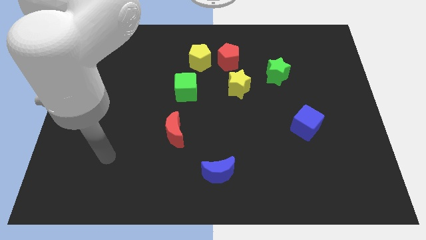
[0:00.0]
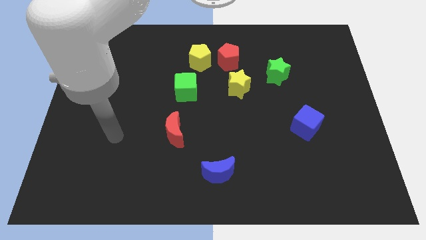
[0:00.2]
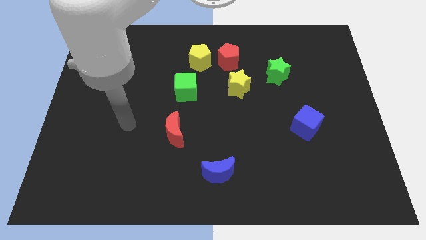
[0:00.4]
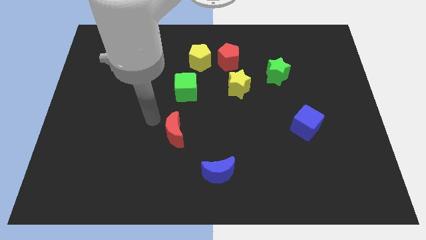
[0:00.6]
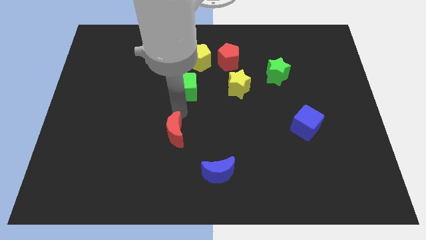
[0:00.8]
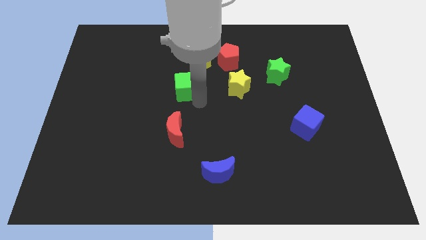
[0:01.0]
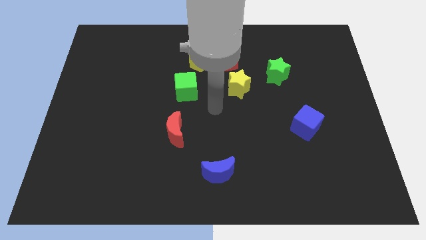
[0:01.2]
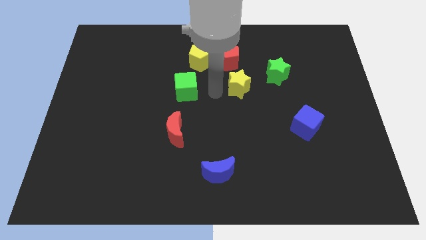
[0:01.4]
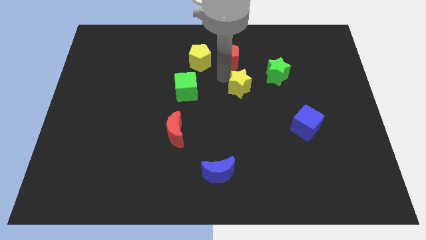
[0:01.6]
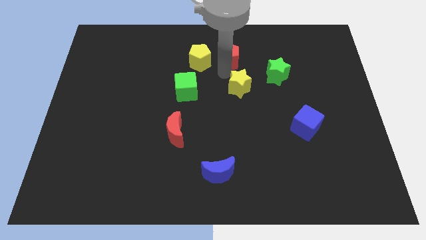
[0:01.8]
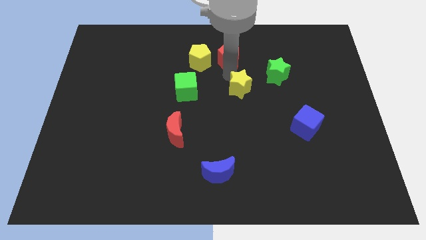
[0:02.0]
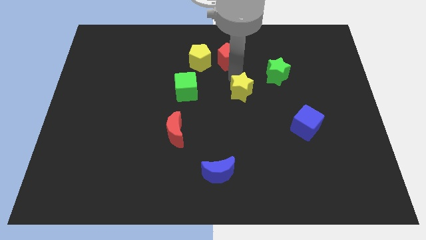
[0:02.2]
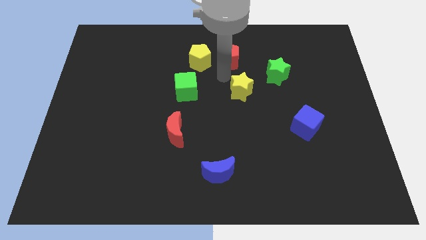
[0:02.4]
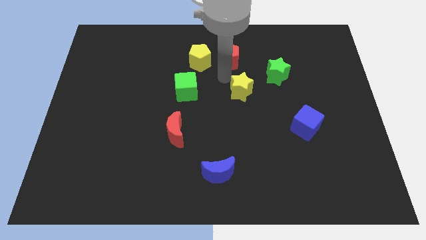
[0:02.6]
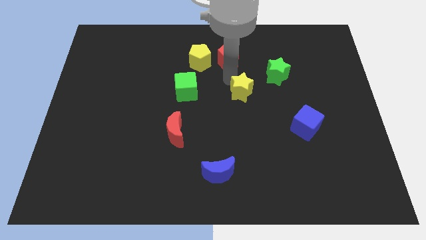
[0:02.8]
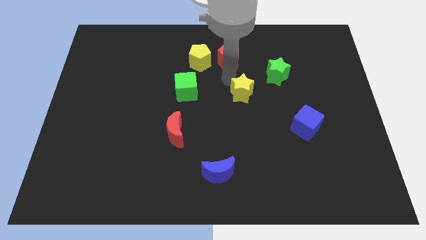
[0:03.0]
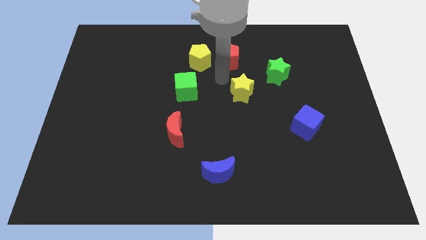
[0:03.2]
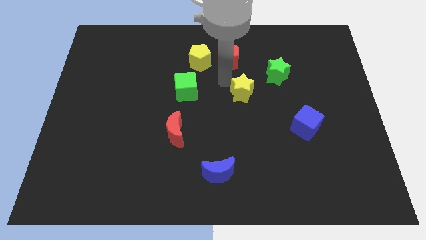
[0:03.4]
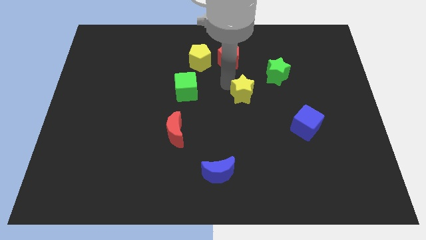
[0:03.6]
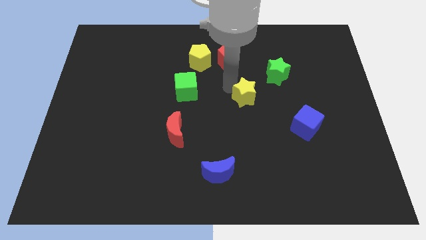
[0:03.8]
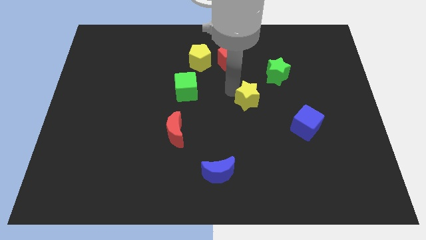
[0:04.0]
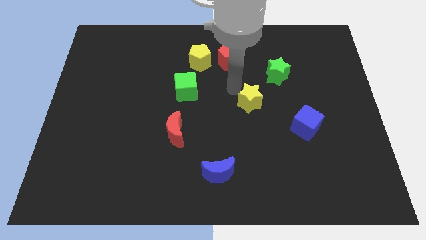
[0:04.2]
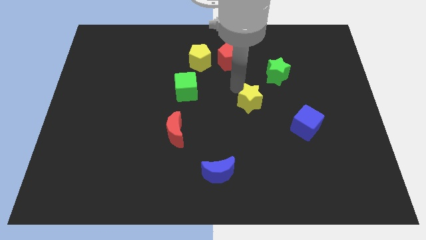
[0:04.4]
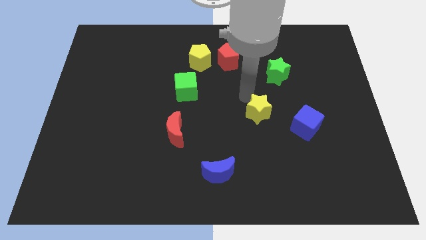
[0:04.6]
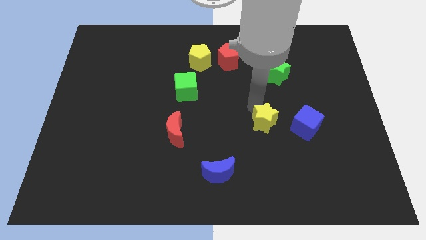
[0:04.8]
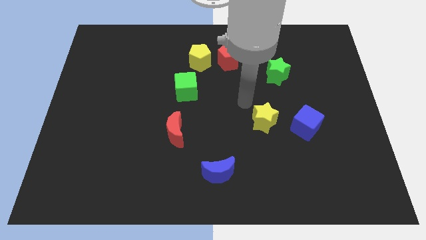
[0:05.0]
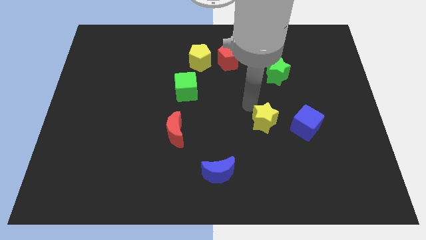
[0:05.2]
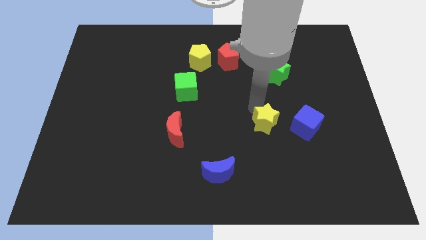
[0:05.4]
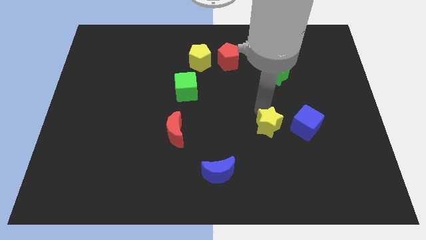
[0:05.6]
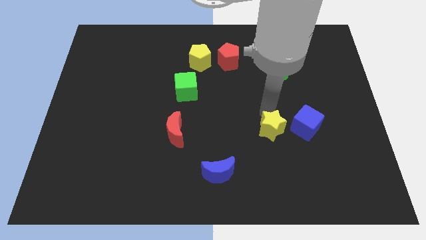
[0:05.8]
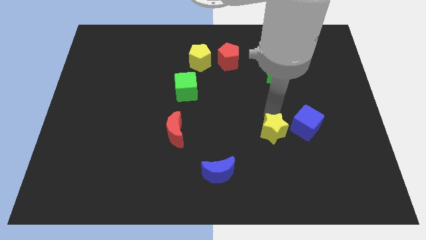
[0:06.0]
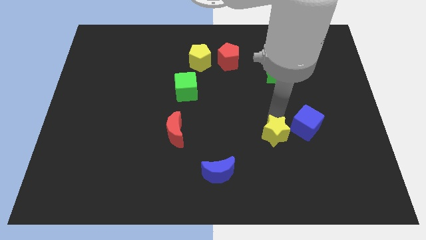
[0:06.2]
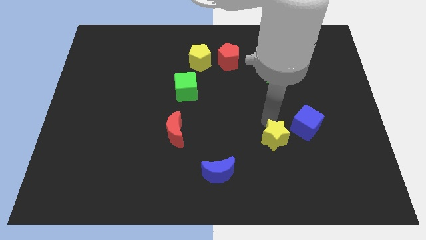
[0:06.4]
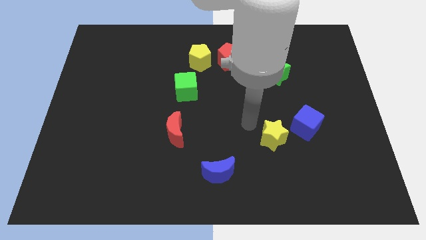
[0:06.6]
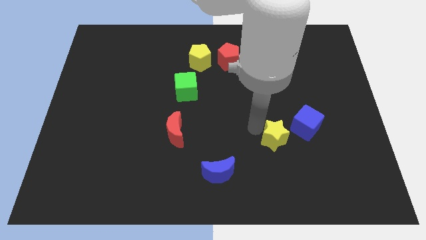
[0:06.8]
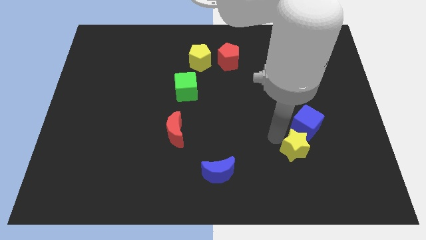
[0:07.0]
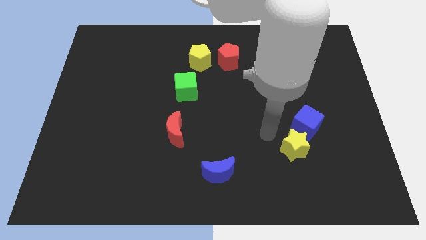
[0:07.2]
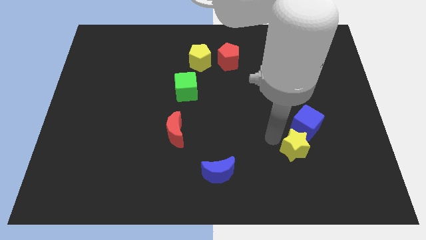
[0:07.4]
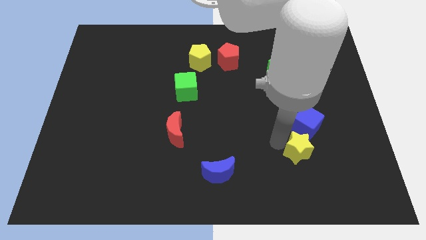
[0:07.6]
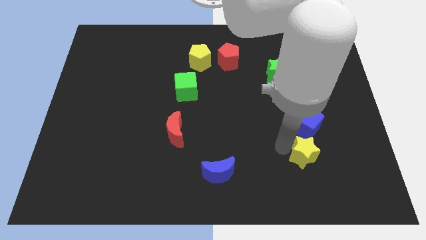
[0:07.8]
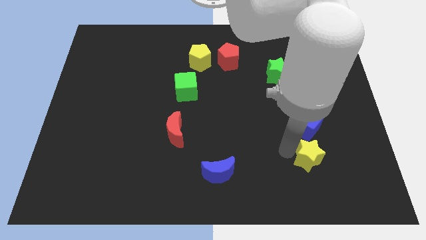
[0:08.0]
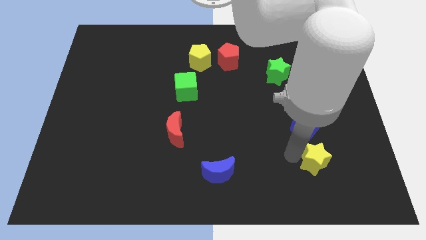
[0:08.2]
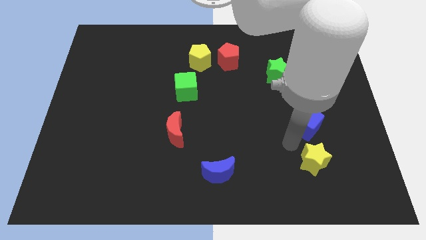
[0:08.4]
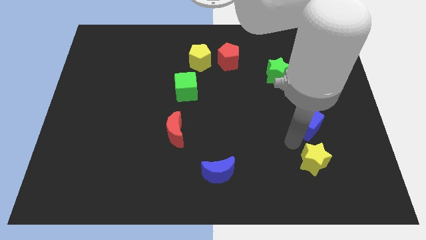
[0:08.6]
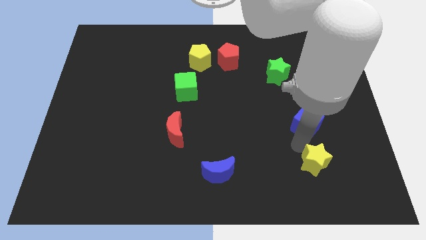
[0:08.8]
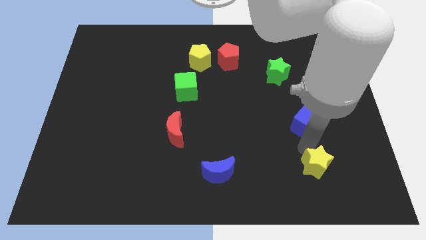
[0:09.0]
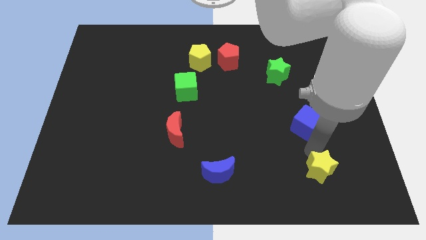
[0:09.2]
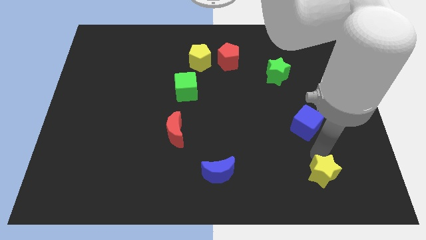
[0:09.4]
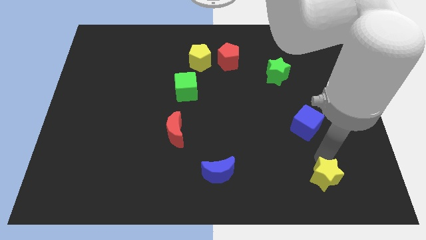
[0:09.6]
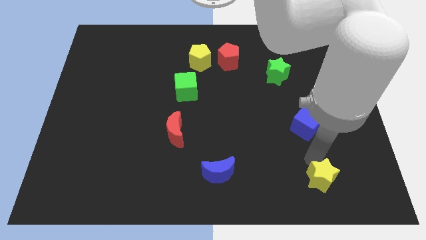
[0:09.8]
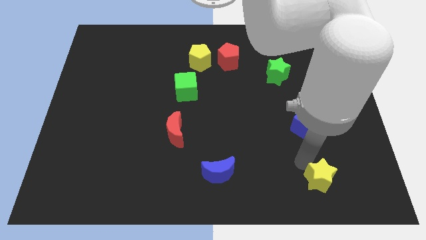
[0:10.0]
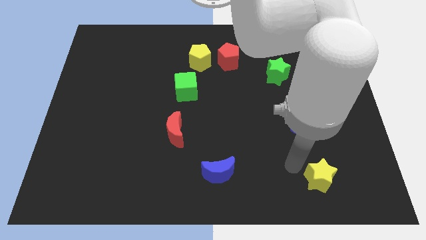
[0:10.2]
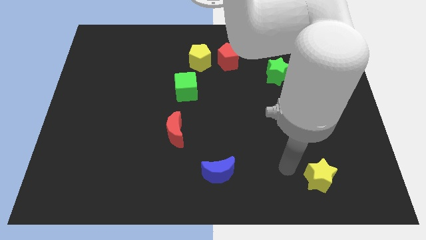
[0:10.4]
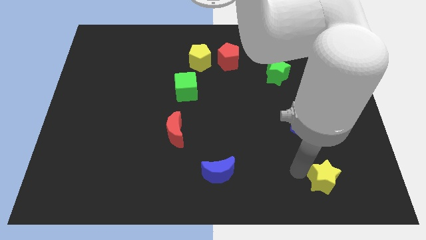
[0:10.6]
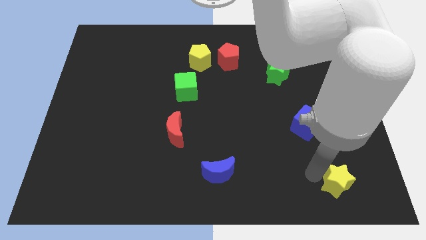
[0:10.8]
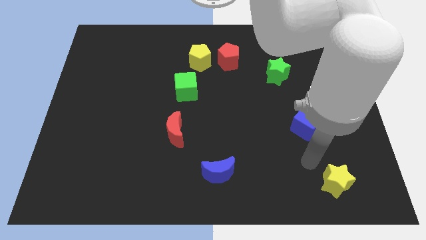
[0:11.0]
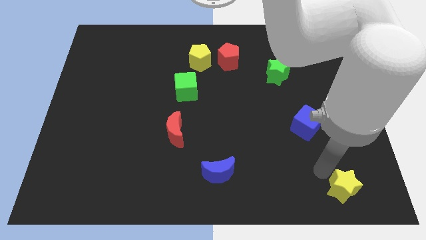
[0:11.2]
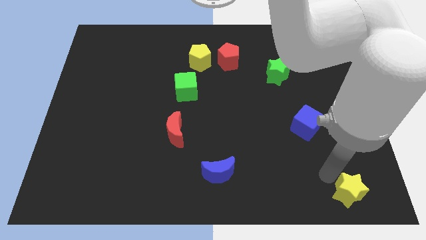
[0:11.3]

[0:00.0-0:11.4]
push the yellow star to the bottom right of the board

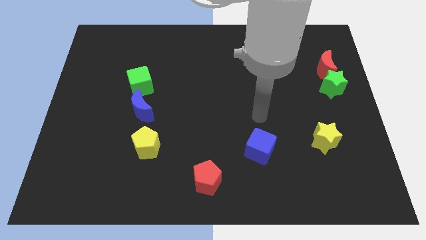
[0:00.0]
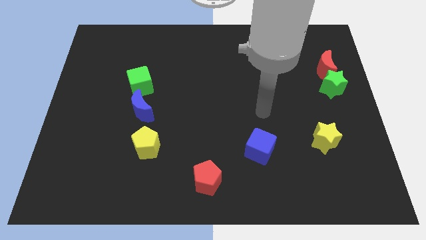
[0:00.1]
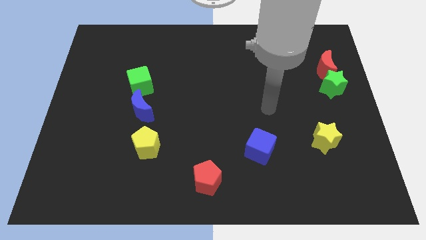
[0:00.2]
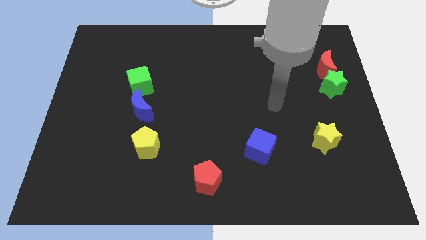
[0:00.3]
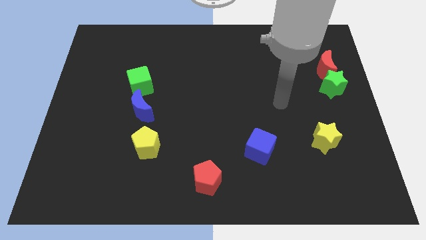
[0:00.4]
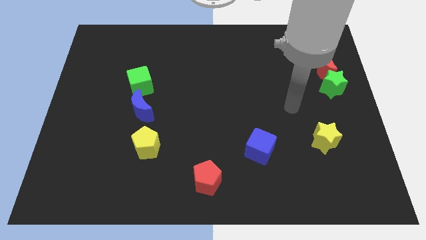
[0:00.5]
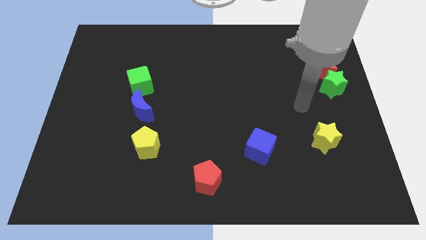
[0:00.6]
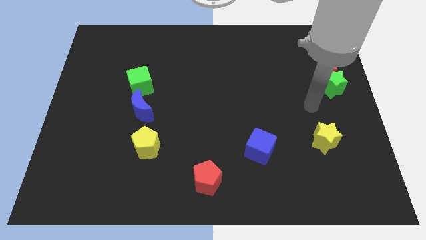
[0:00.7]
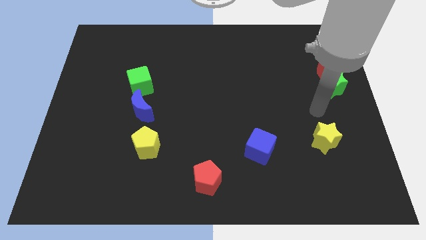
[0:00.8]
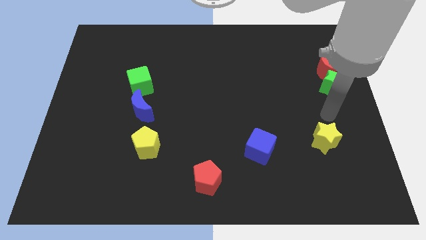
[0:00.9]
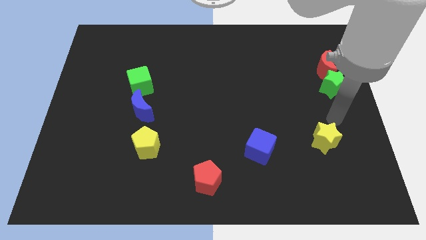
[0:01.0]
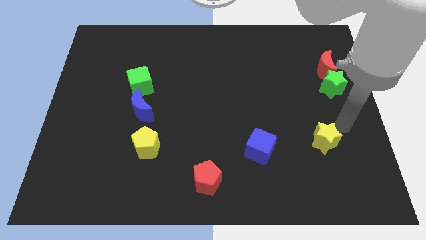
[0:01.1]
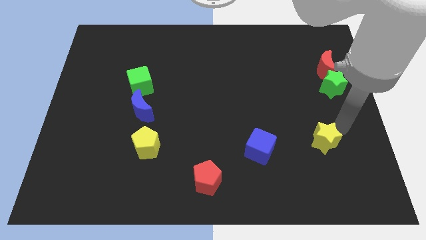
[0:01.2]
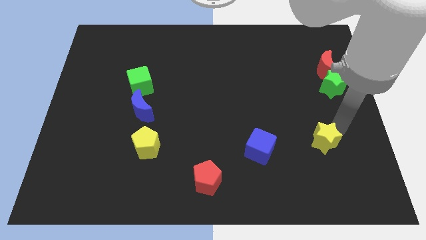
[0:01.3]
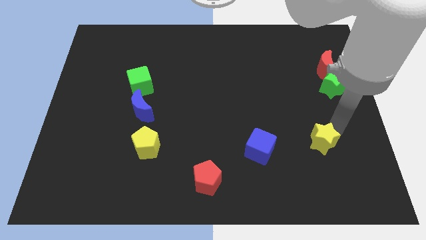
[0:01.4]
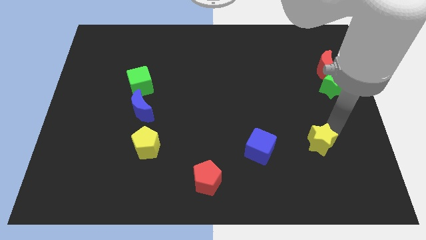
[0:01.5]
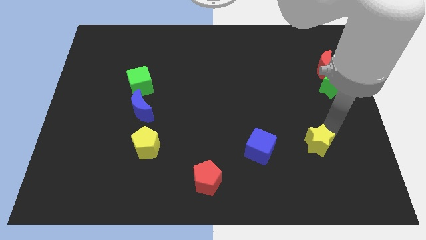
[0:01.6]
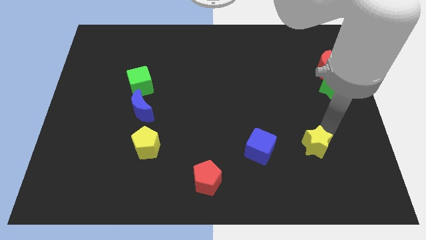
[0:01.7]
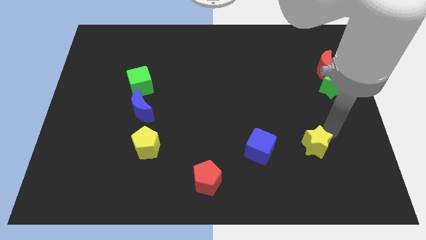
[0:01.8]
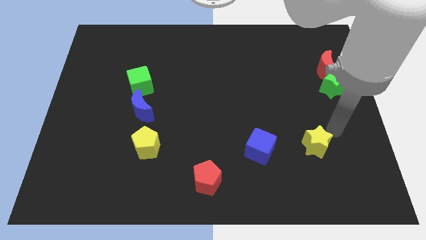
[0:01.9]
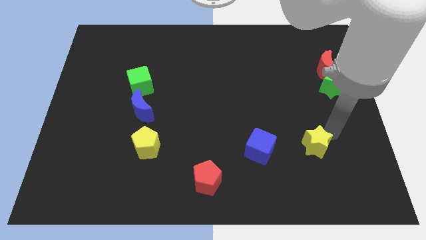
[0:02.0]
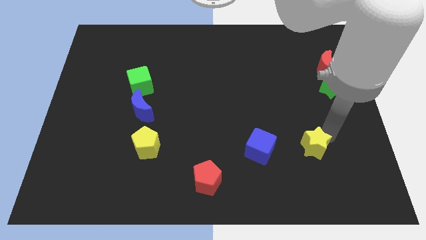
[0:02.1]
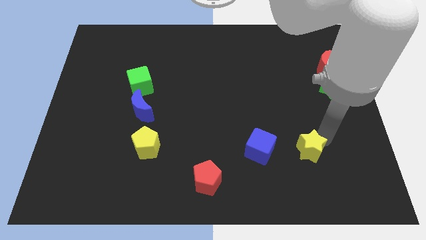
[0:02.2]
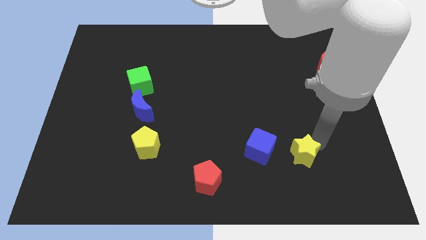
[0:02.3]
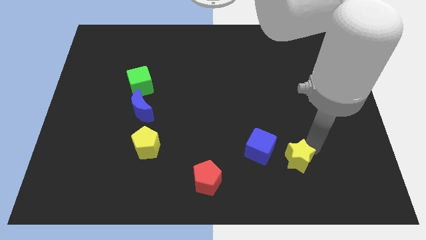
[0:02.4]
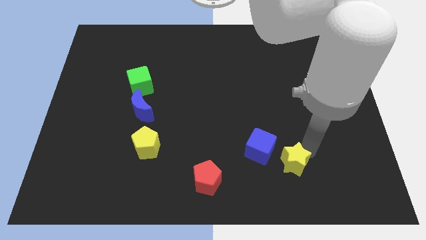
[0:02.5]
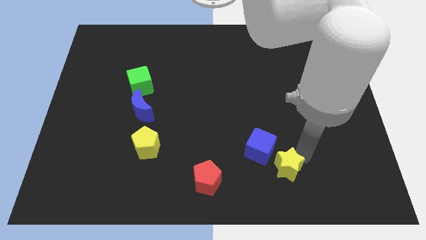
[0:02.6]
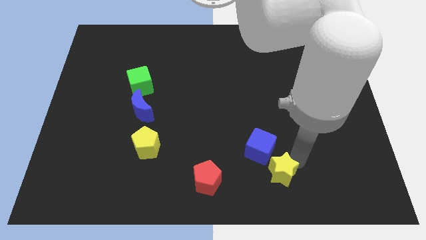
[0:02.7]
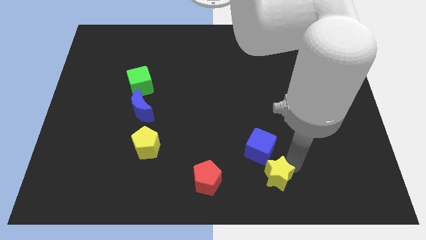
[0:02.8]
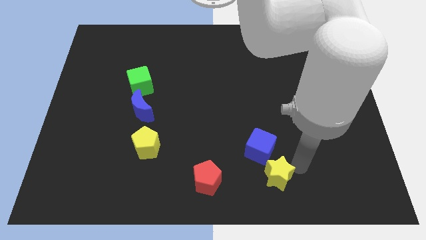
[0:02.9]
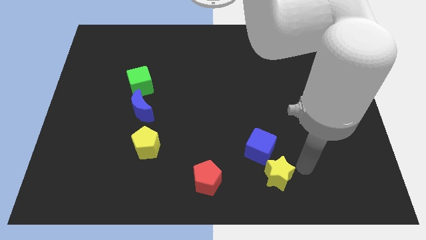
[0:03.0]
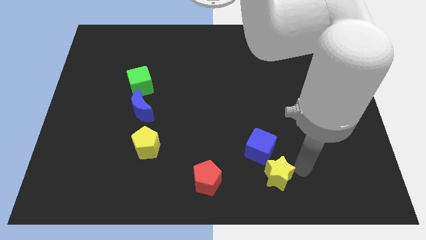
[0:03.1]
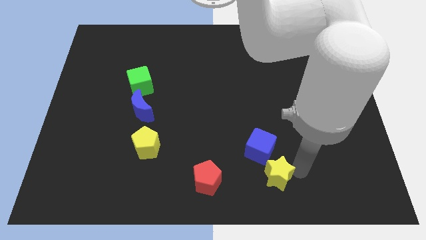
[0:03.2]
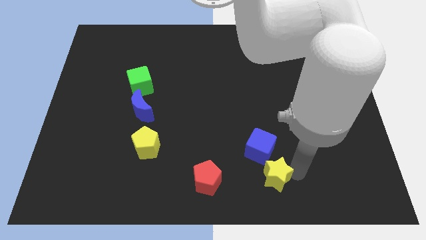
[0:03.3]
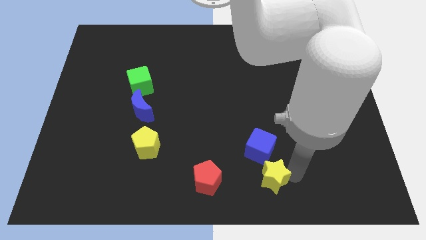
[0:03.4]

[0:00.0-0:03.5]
slide the yellow star to the bottom side
